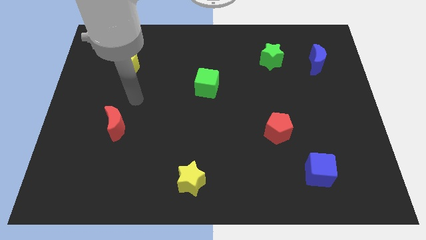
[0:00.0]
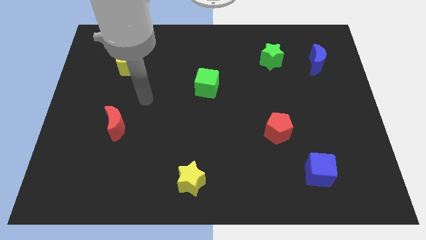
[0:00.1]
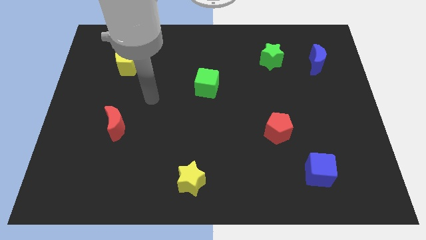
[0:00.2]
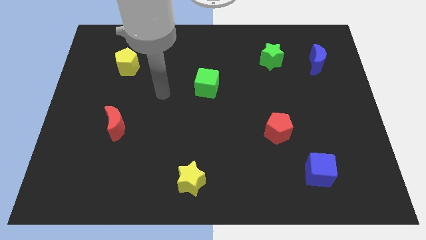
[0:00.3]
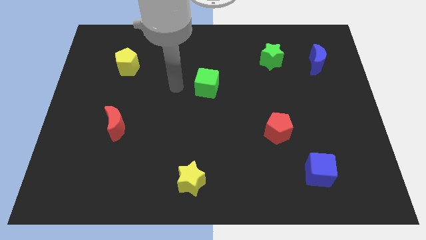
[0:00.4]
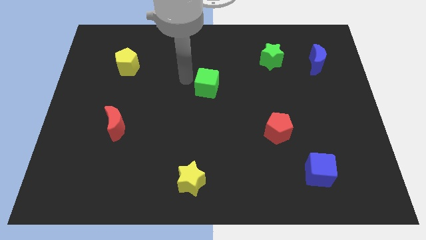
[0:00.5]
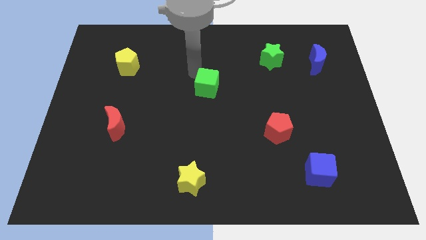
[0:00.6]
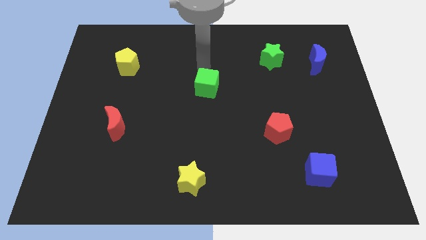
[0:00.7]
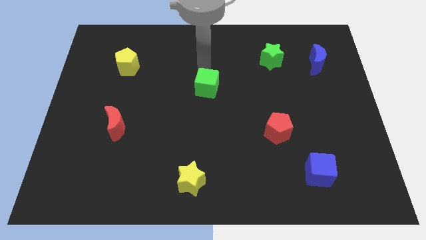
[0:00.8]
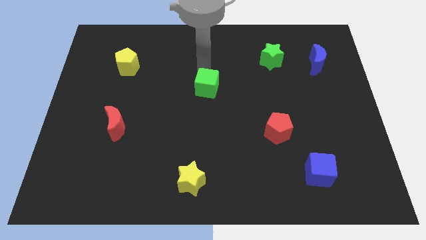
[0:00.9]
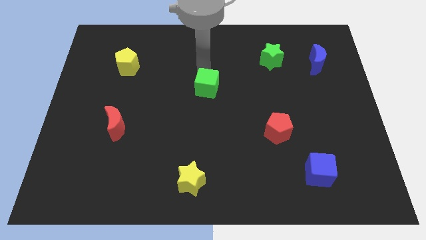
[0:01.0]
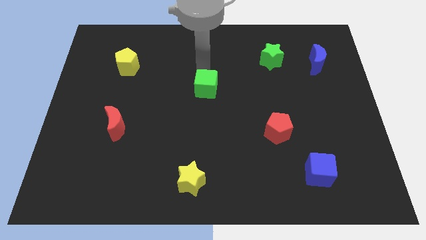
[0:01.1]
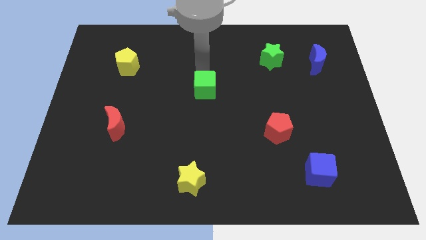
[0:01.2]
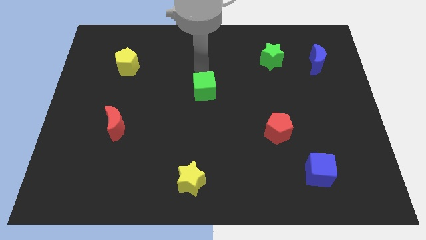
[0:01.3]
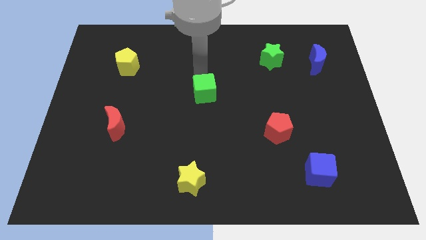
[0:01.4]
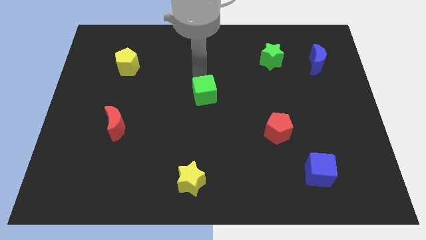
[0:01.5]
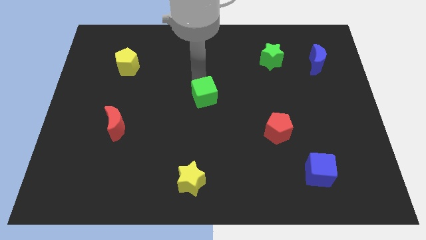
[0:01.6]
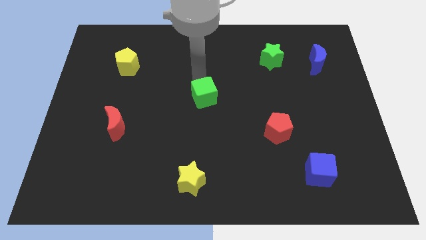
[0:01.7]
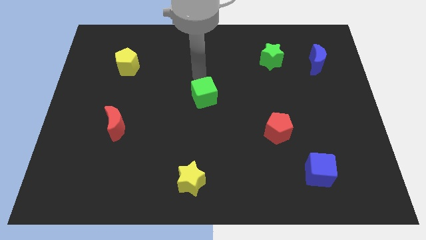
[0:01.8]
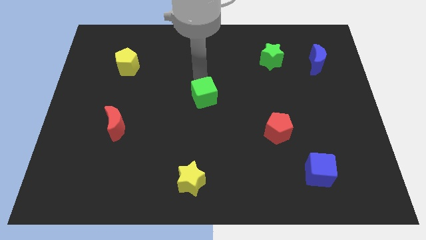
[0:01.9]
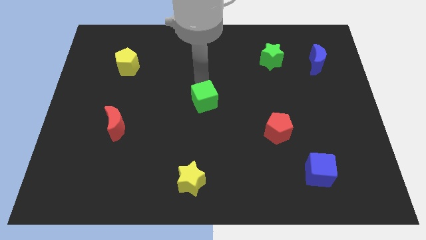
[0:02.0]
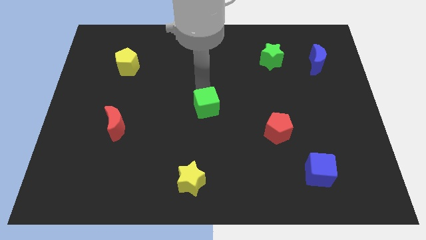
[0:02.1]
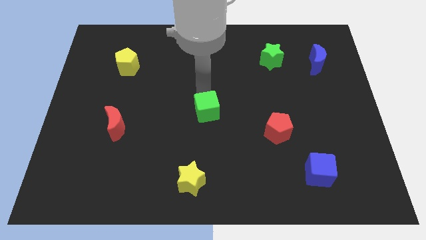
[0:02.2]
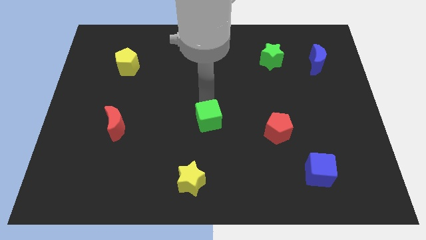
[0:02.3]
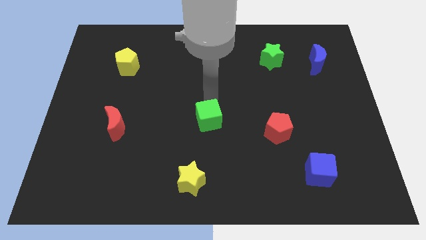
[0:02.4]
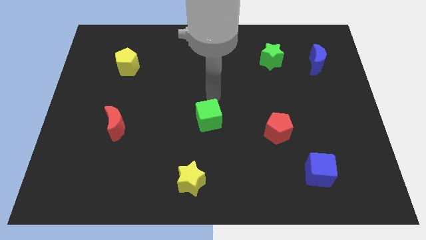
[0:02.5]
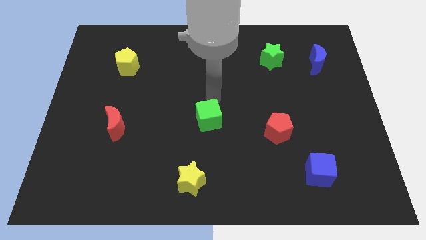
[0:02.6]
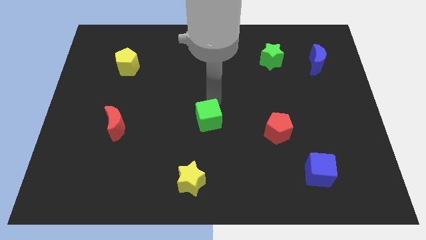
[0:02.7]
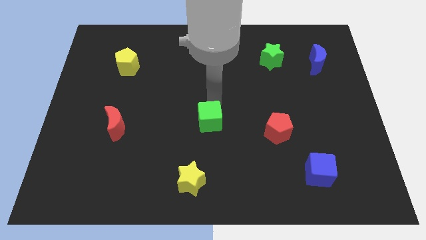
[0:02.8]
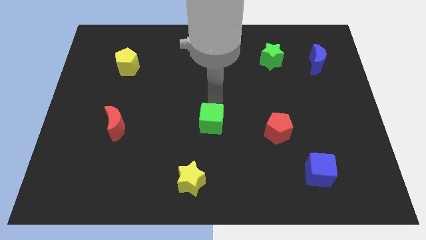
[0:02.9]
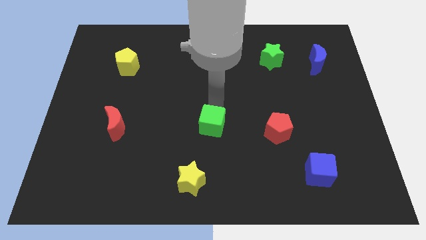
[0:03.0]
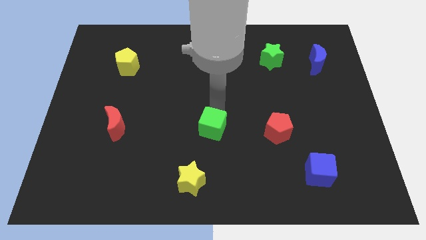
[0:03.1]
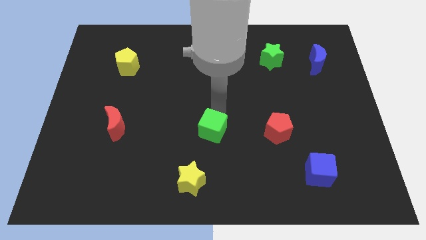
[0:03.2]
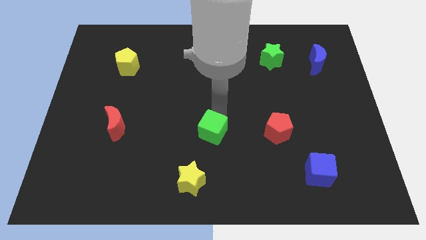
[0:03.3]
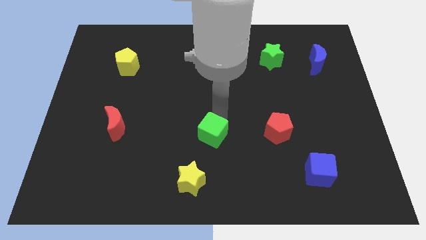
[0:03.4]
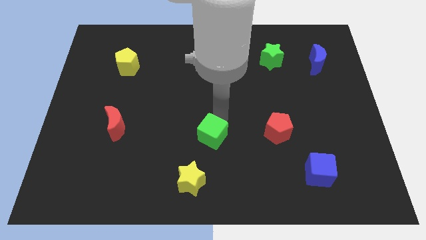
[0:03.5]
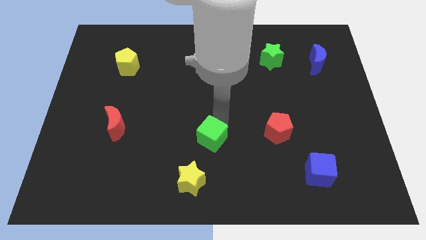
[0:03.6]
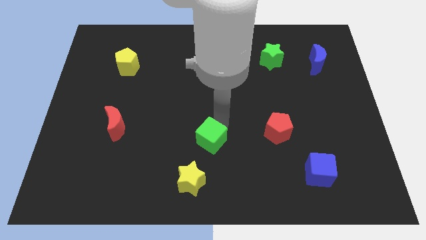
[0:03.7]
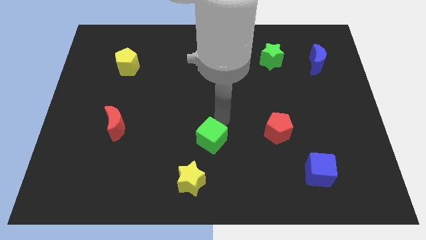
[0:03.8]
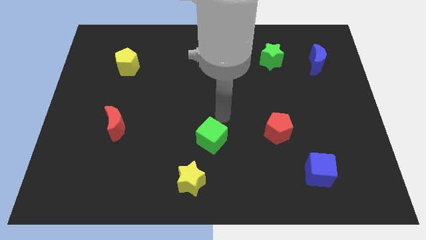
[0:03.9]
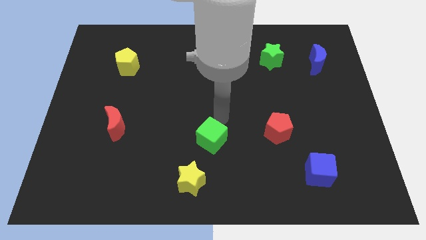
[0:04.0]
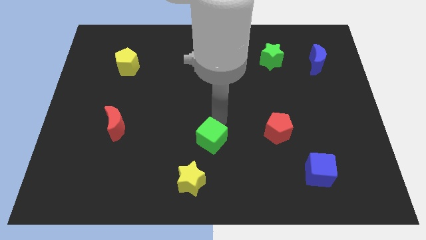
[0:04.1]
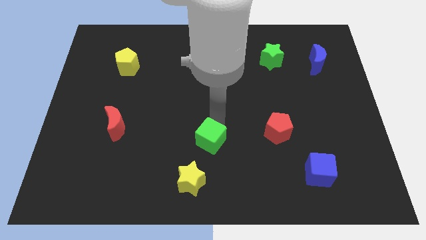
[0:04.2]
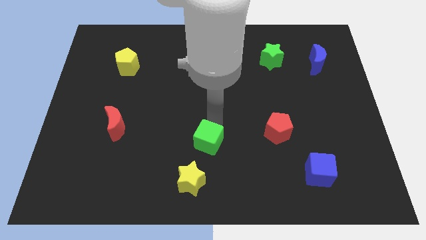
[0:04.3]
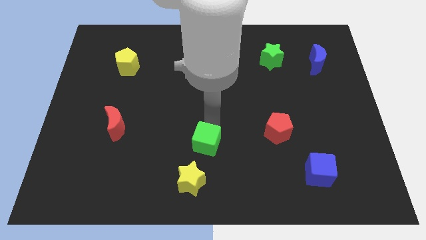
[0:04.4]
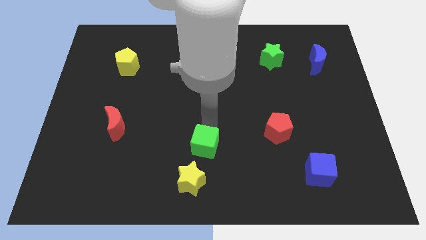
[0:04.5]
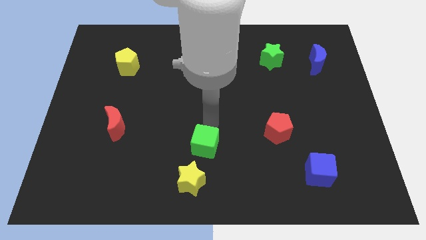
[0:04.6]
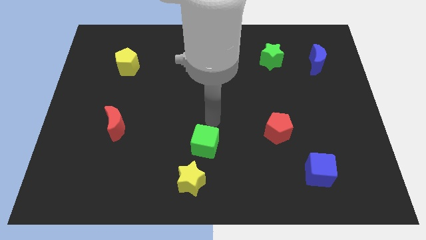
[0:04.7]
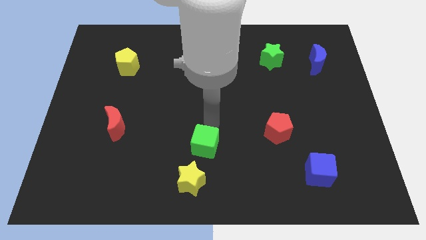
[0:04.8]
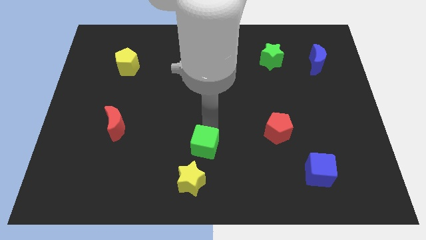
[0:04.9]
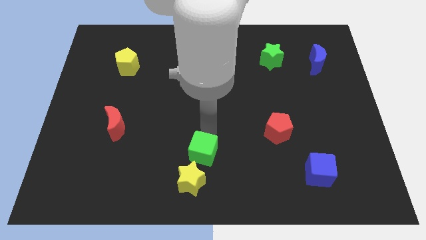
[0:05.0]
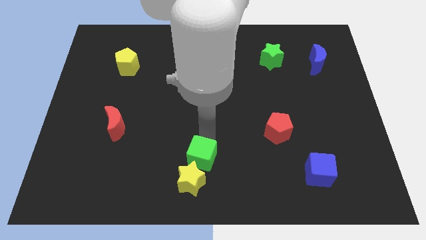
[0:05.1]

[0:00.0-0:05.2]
slide the green cube close to the yellow star

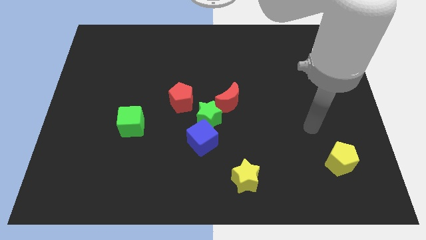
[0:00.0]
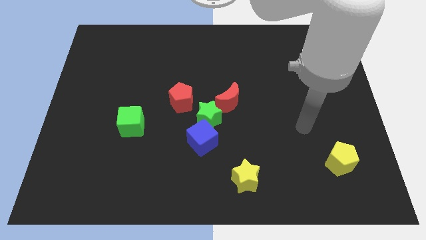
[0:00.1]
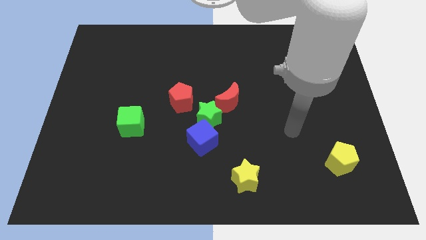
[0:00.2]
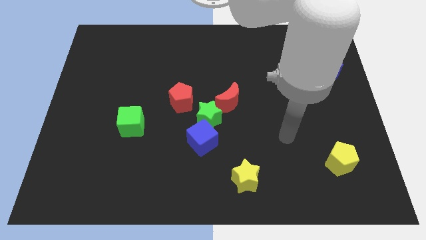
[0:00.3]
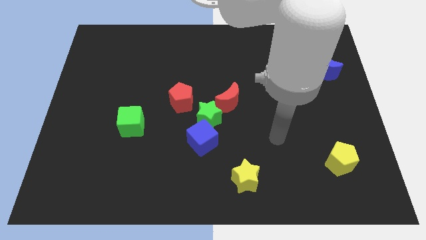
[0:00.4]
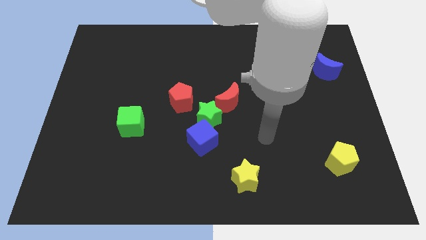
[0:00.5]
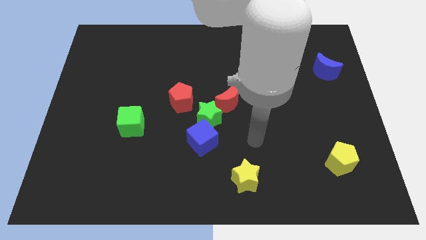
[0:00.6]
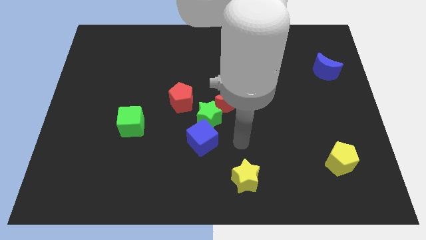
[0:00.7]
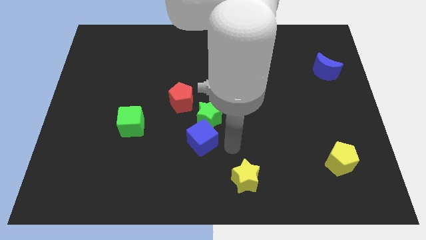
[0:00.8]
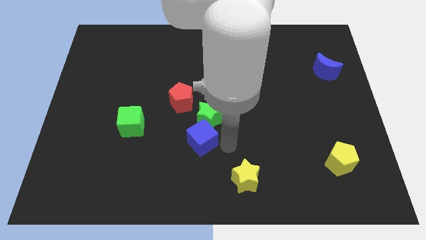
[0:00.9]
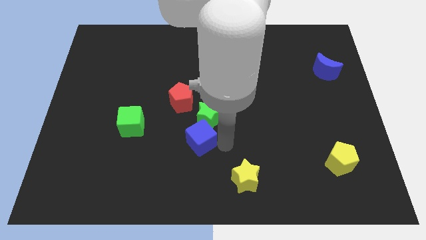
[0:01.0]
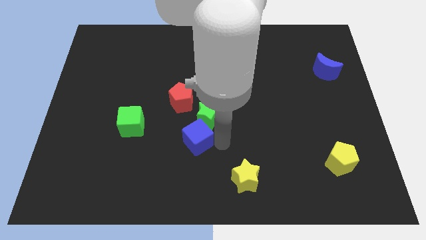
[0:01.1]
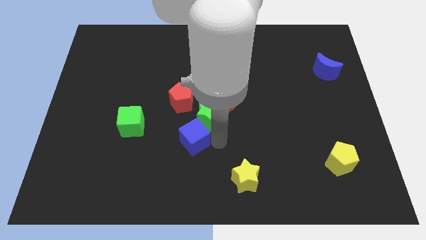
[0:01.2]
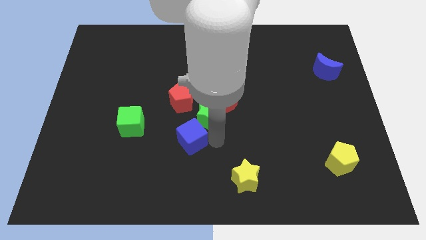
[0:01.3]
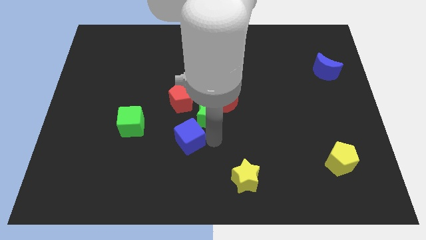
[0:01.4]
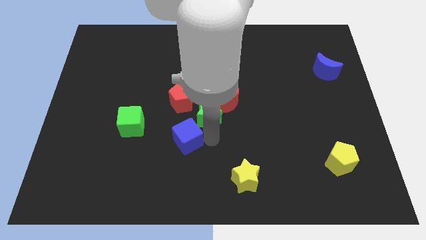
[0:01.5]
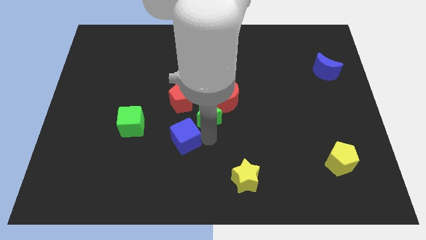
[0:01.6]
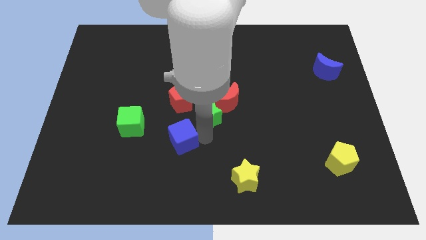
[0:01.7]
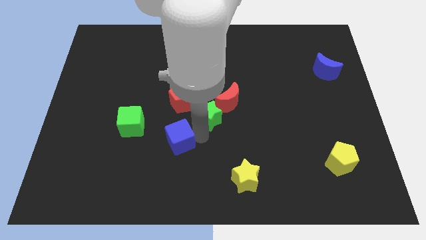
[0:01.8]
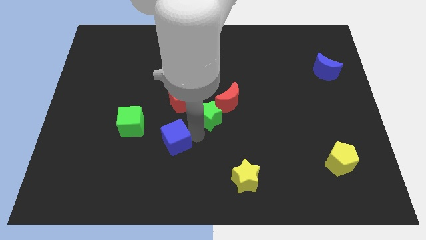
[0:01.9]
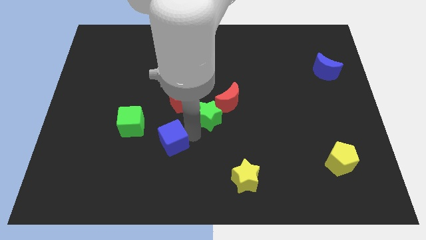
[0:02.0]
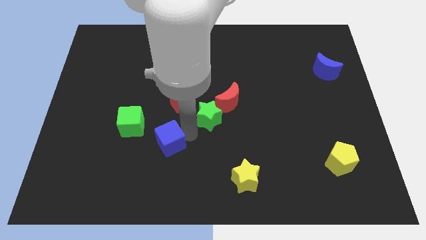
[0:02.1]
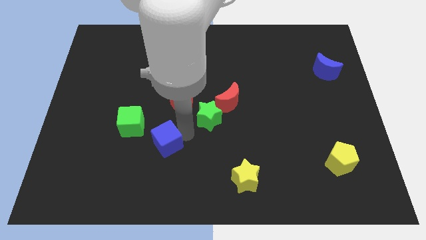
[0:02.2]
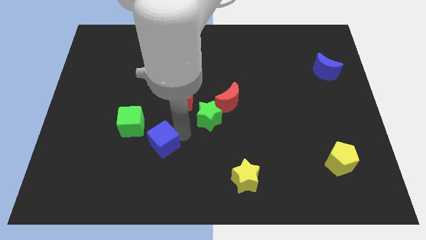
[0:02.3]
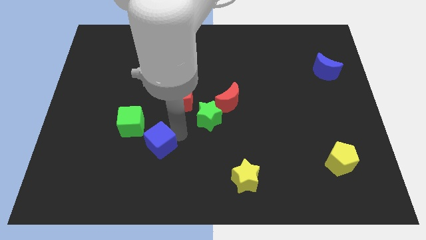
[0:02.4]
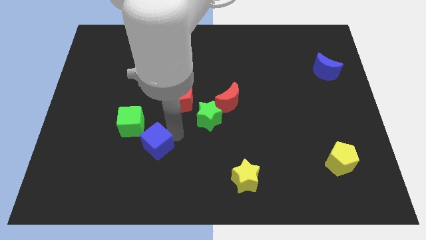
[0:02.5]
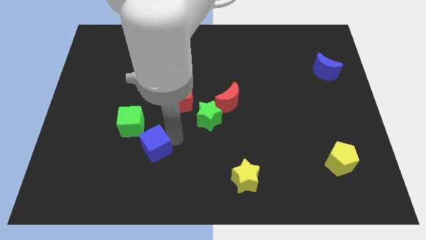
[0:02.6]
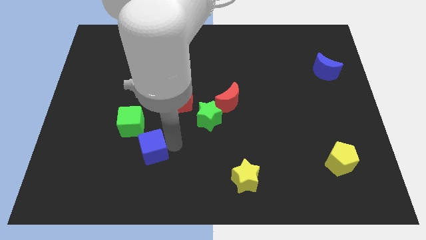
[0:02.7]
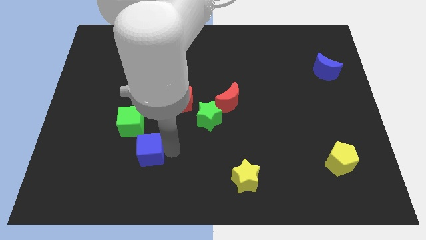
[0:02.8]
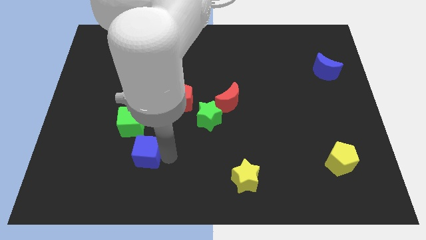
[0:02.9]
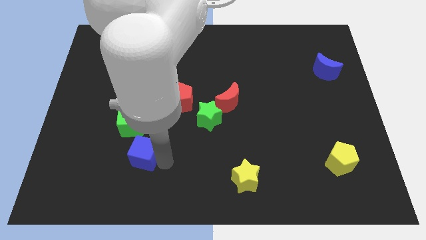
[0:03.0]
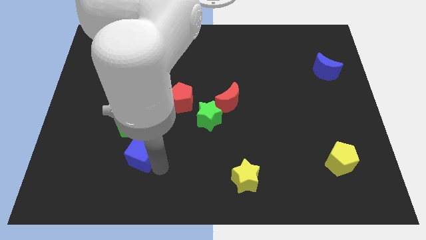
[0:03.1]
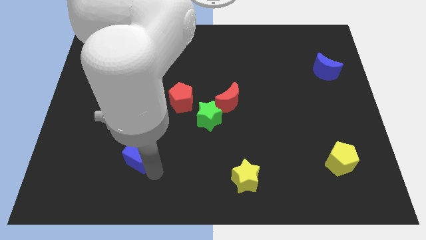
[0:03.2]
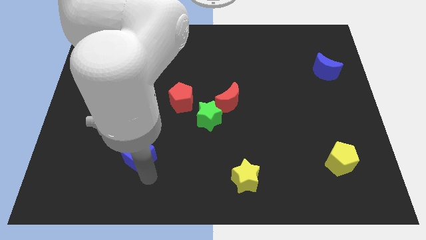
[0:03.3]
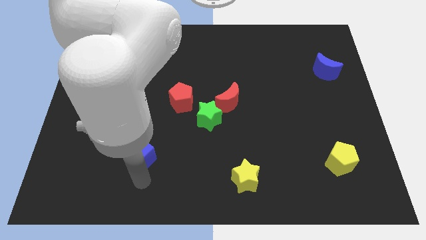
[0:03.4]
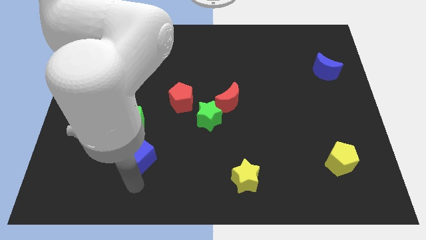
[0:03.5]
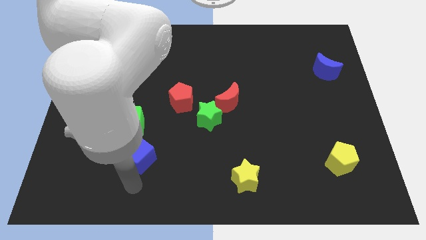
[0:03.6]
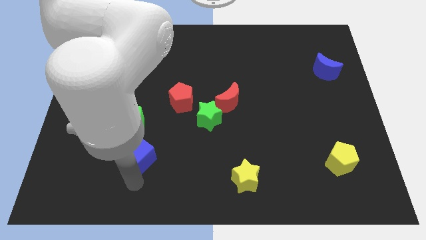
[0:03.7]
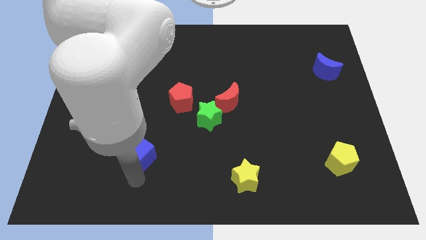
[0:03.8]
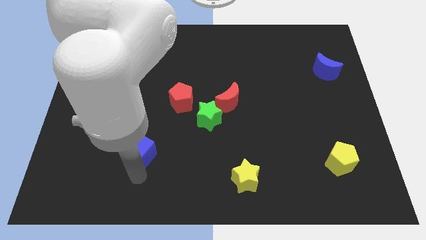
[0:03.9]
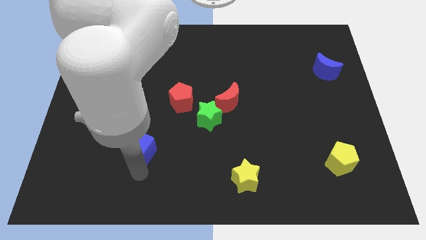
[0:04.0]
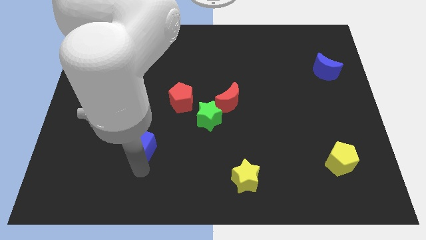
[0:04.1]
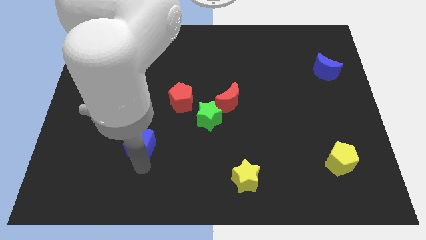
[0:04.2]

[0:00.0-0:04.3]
move the blue cube to the green cube
